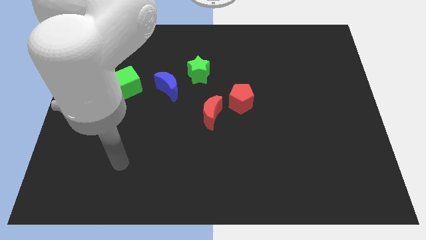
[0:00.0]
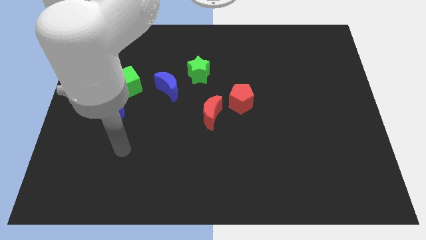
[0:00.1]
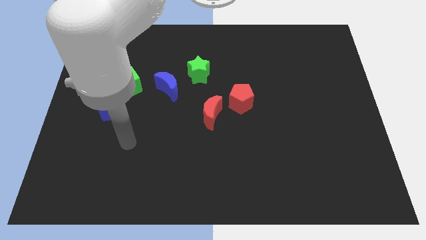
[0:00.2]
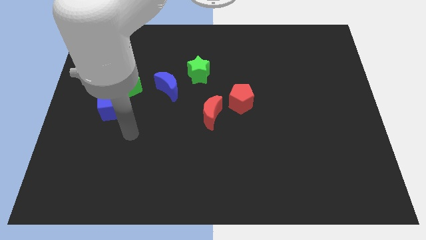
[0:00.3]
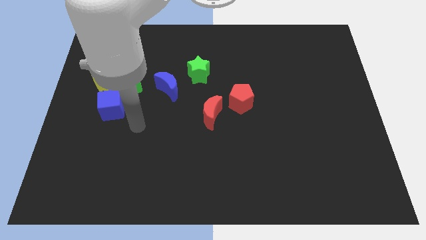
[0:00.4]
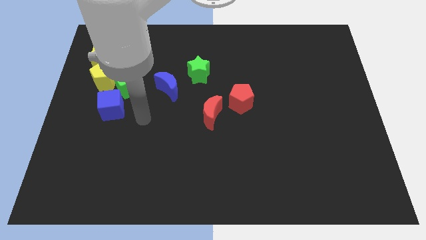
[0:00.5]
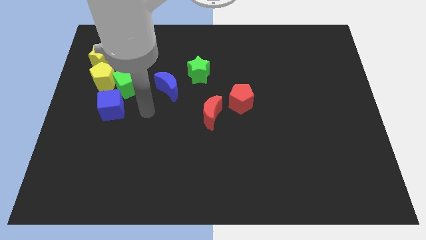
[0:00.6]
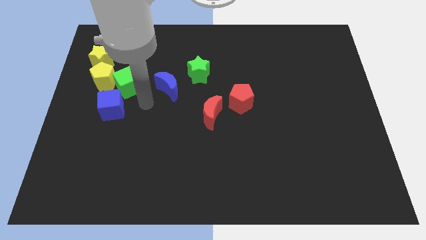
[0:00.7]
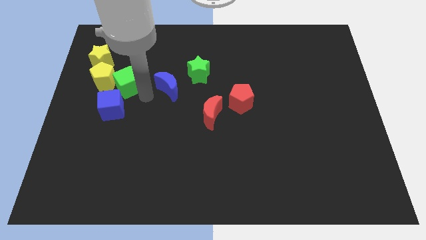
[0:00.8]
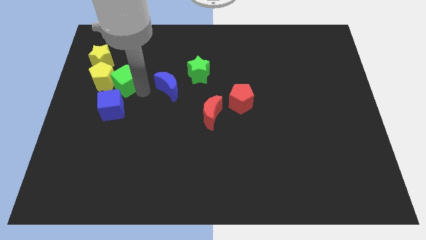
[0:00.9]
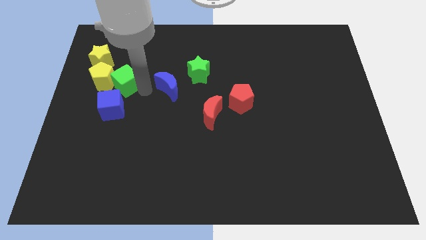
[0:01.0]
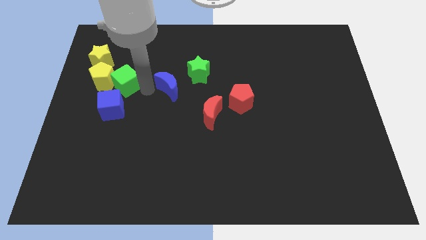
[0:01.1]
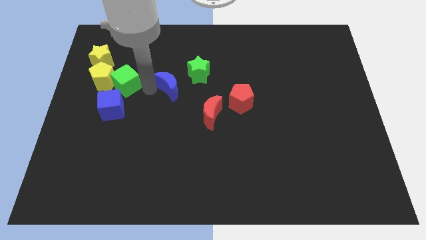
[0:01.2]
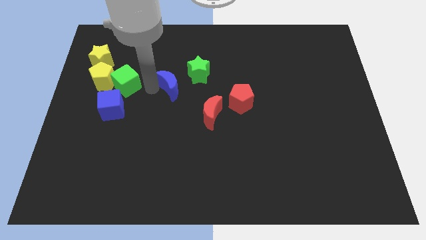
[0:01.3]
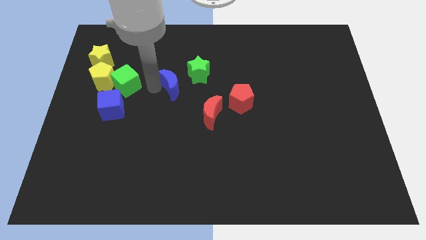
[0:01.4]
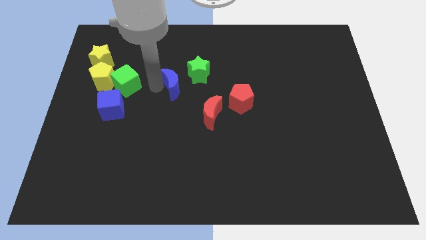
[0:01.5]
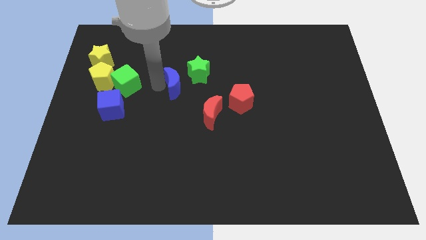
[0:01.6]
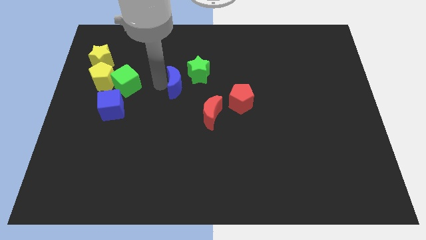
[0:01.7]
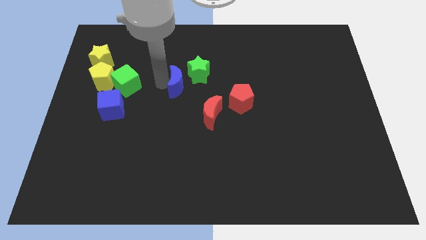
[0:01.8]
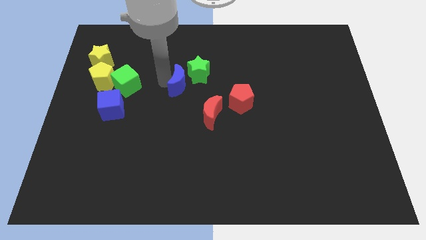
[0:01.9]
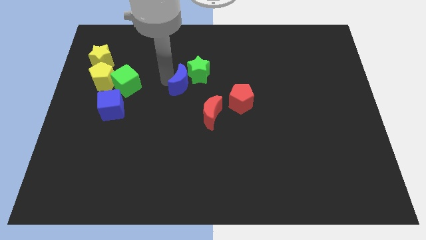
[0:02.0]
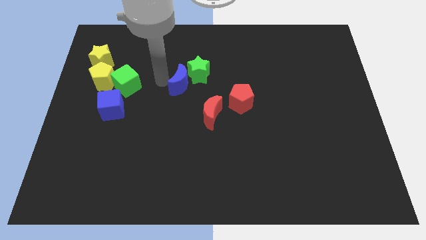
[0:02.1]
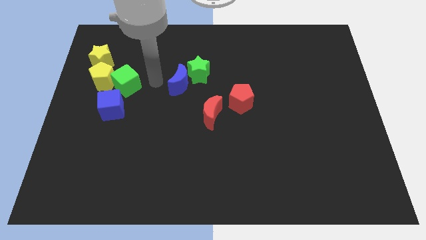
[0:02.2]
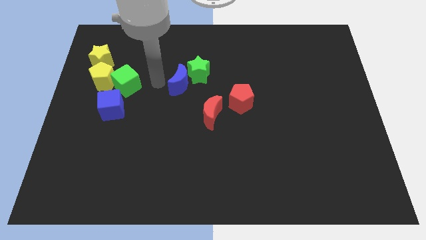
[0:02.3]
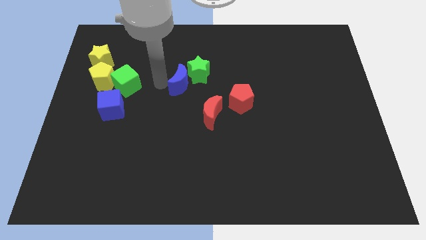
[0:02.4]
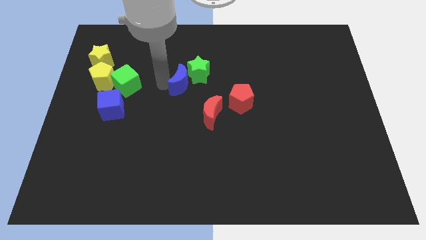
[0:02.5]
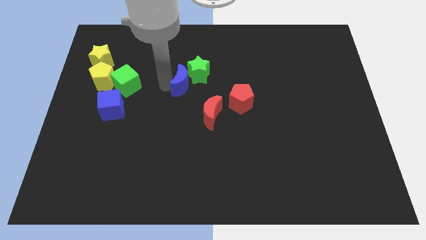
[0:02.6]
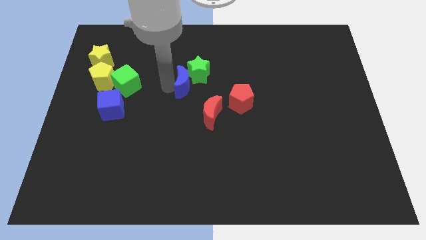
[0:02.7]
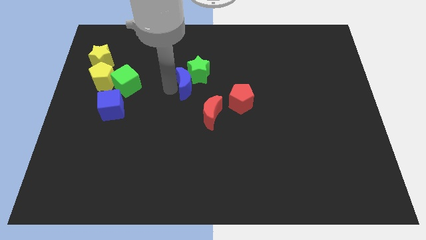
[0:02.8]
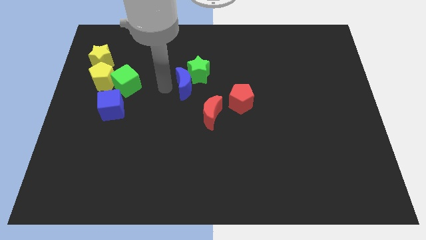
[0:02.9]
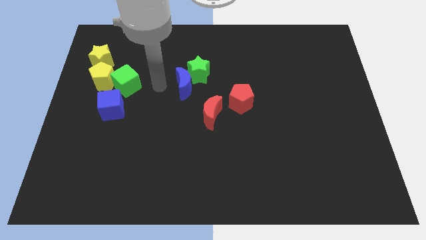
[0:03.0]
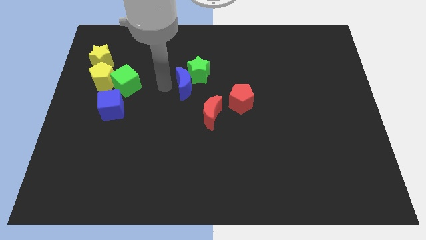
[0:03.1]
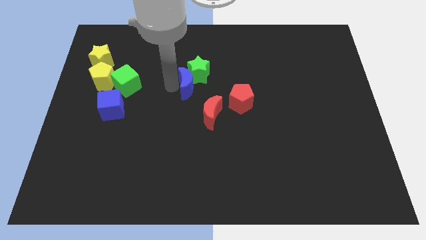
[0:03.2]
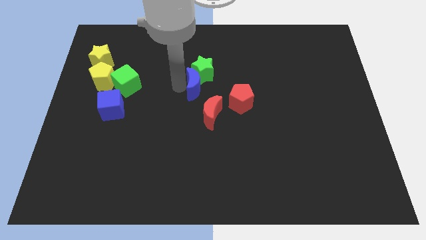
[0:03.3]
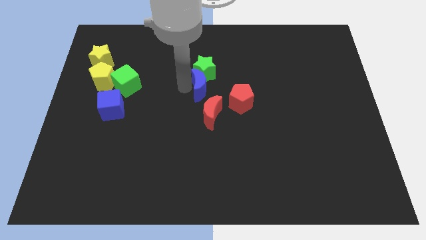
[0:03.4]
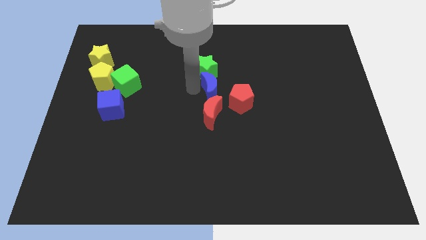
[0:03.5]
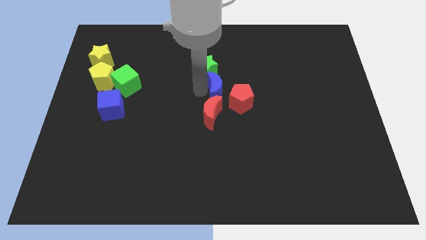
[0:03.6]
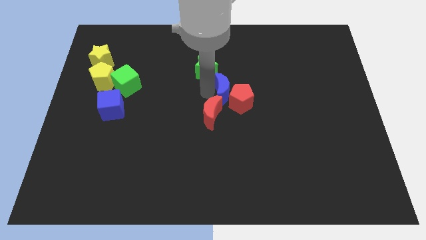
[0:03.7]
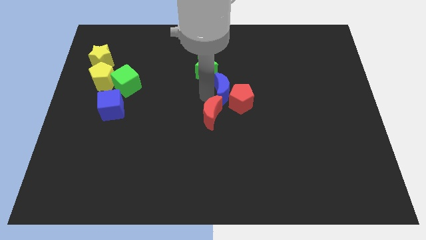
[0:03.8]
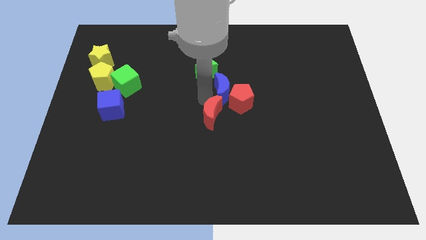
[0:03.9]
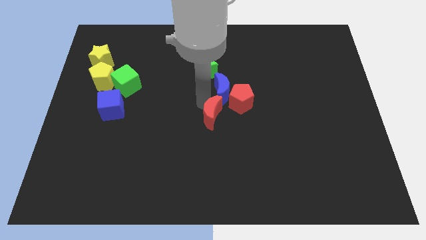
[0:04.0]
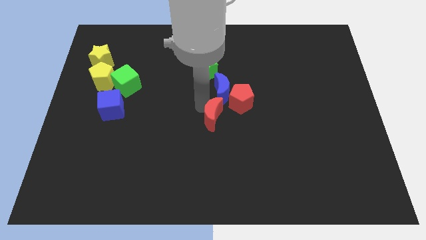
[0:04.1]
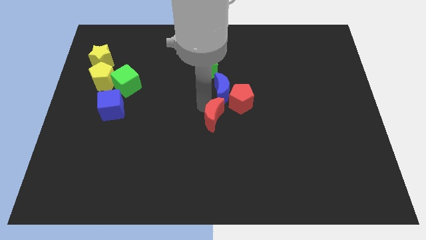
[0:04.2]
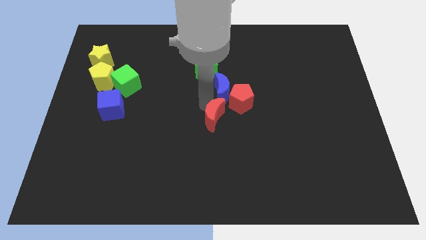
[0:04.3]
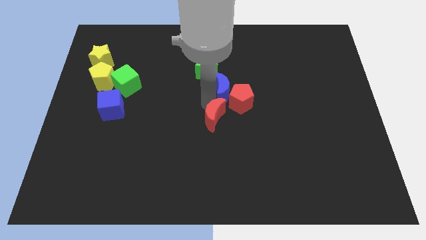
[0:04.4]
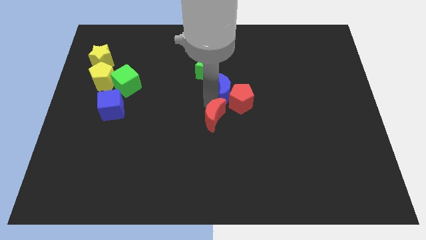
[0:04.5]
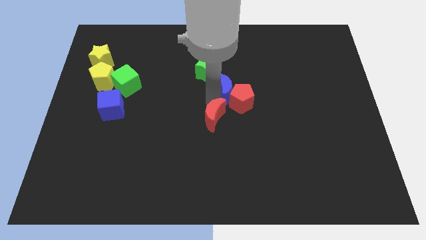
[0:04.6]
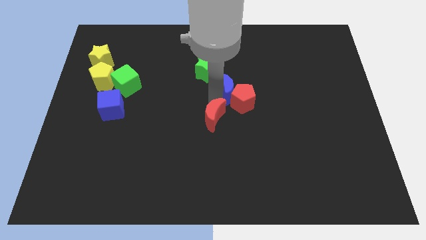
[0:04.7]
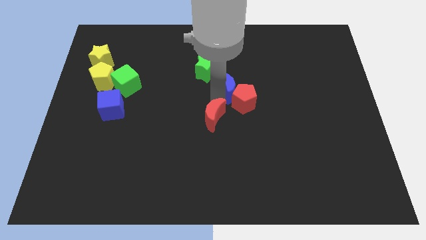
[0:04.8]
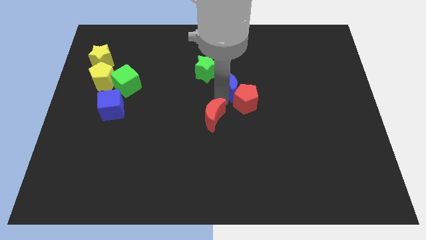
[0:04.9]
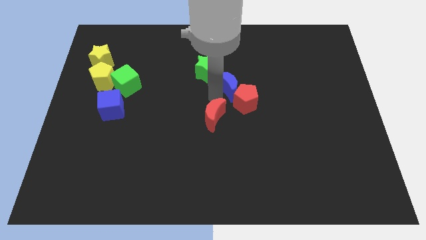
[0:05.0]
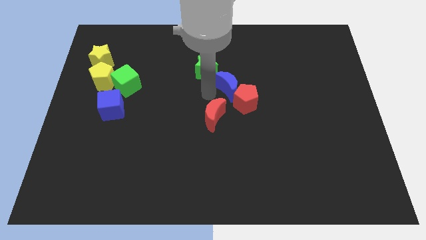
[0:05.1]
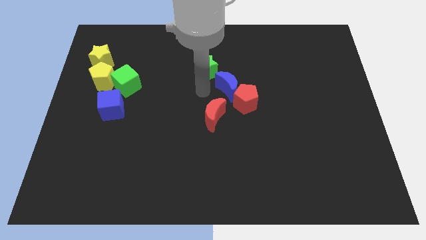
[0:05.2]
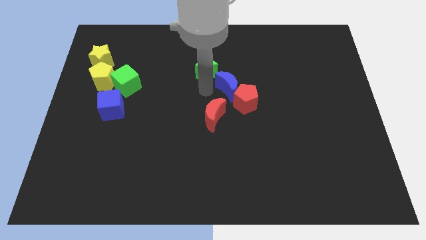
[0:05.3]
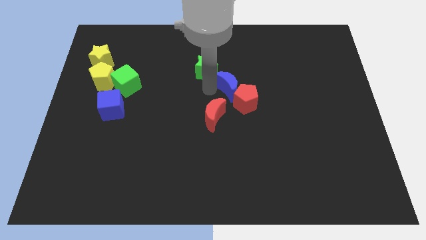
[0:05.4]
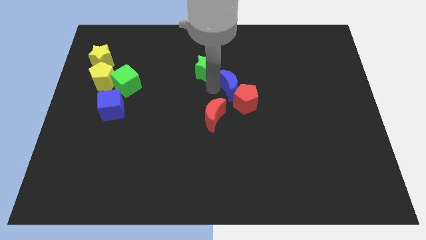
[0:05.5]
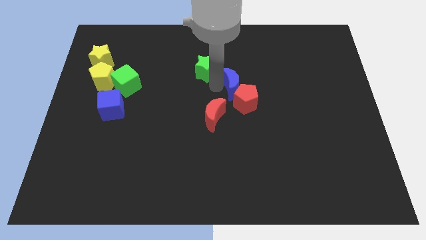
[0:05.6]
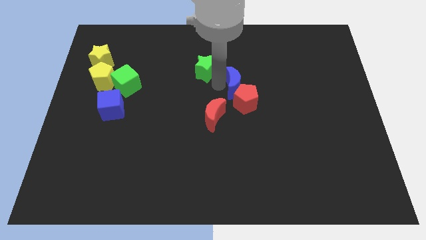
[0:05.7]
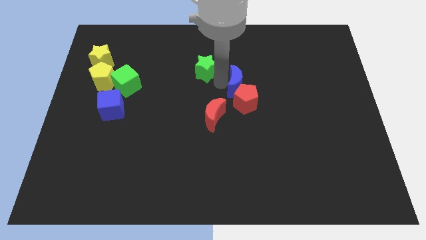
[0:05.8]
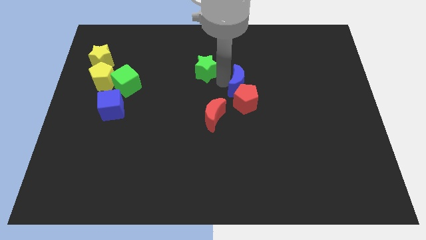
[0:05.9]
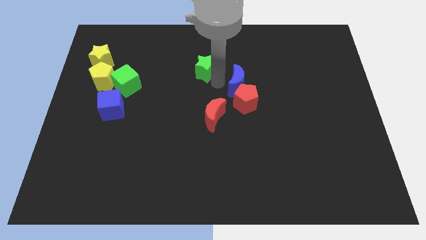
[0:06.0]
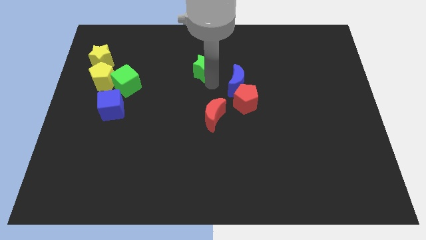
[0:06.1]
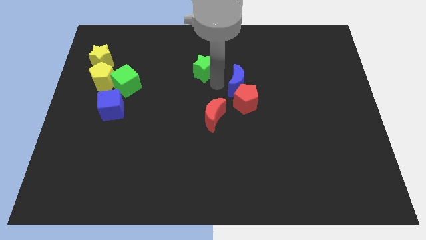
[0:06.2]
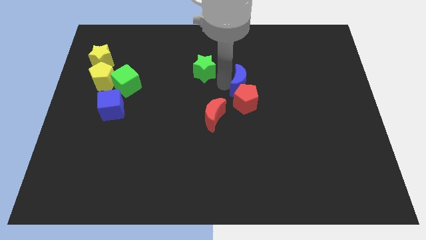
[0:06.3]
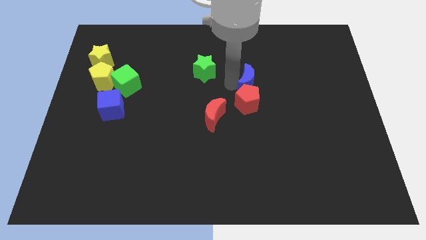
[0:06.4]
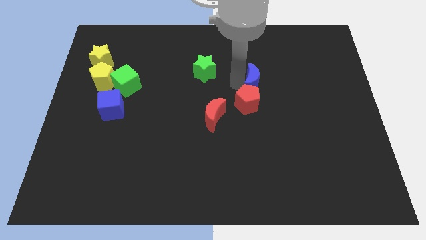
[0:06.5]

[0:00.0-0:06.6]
push the blue moon to the right

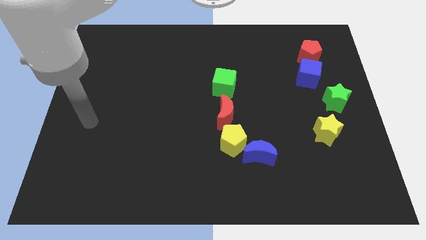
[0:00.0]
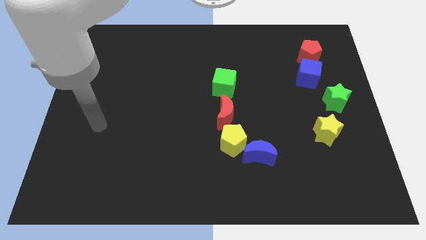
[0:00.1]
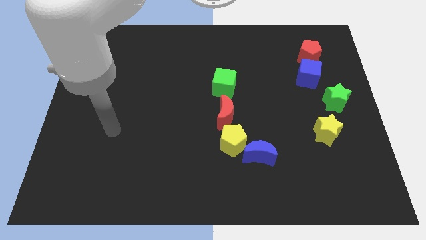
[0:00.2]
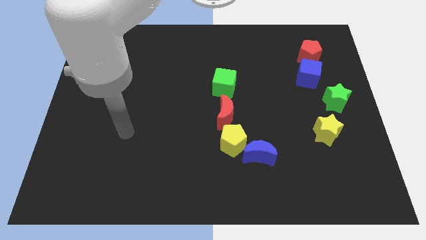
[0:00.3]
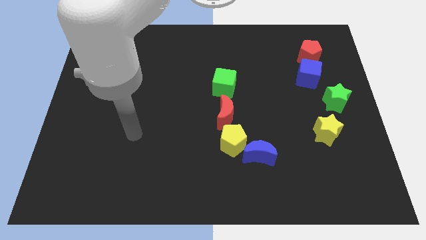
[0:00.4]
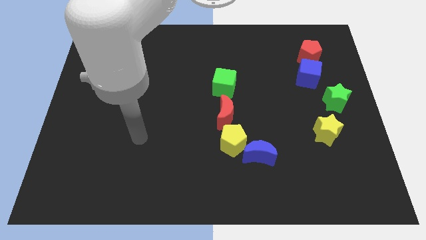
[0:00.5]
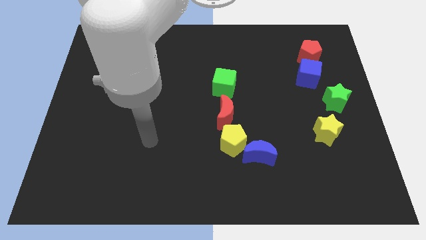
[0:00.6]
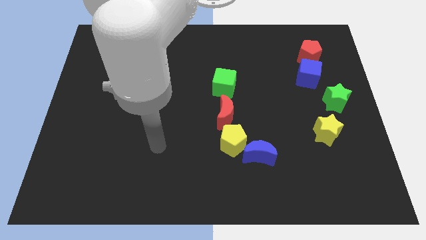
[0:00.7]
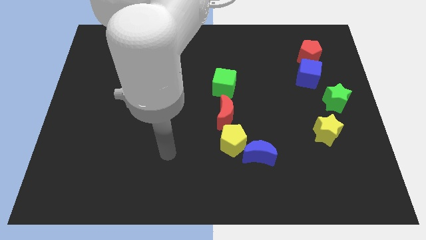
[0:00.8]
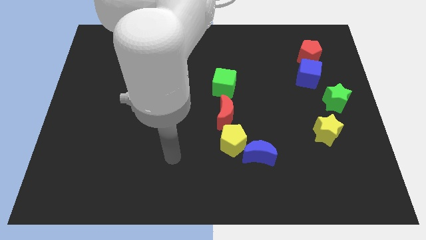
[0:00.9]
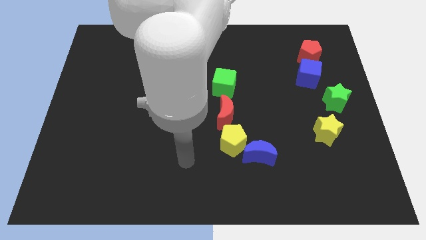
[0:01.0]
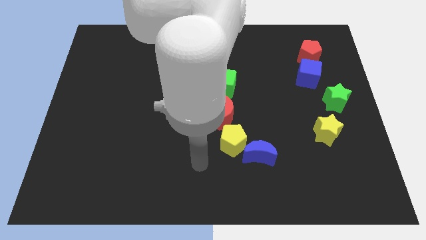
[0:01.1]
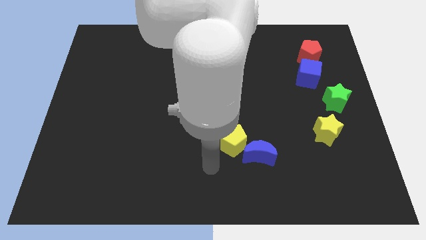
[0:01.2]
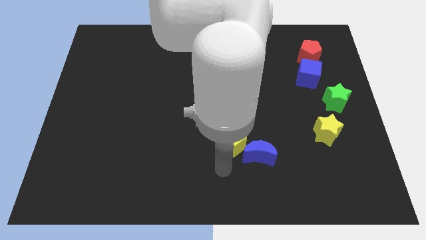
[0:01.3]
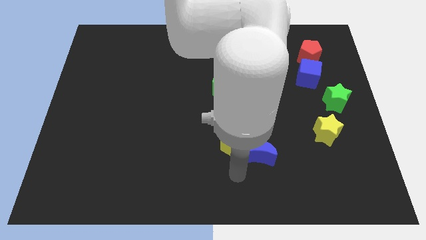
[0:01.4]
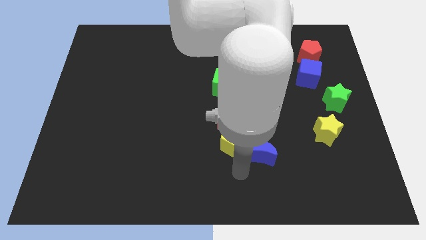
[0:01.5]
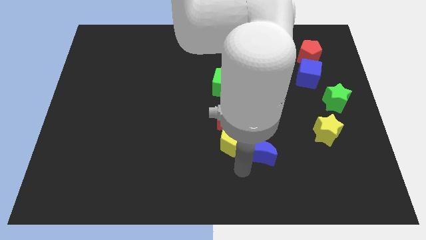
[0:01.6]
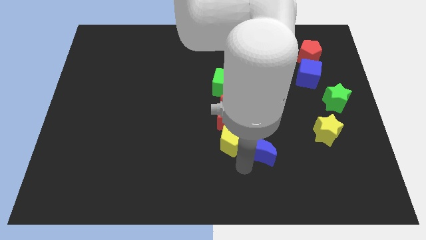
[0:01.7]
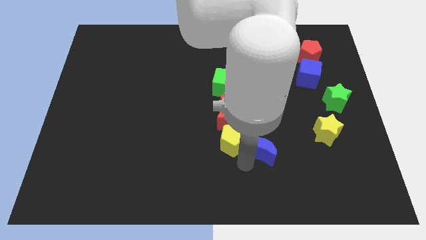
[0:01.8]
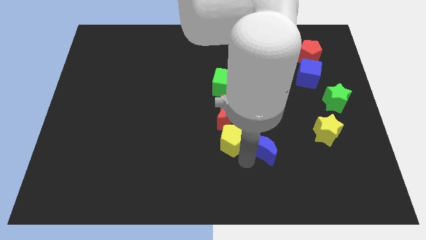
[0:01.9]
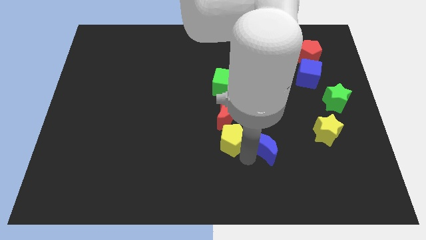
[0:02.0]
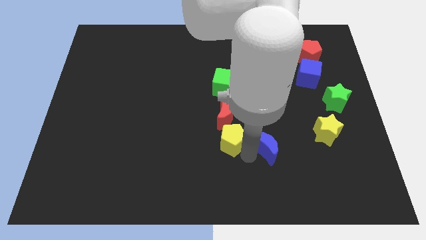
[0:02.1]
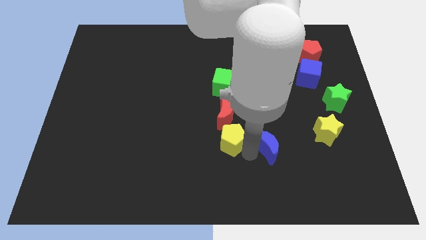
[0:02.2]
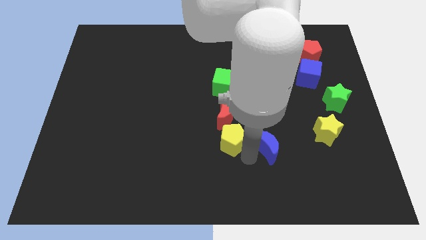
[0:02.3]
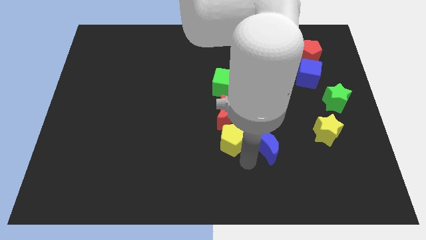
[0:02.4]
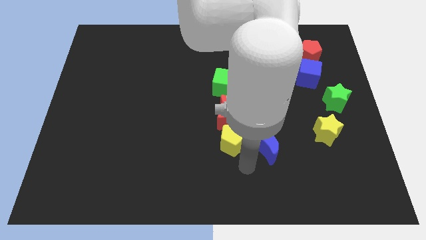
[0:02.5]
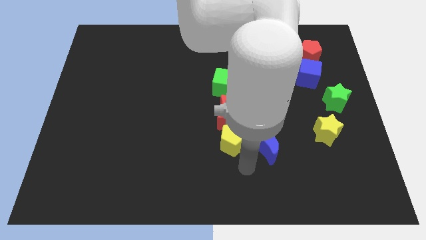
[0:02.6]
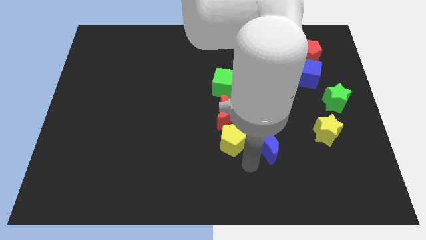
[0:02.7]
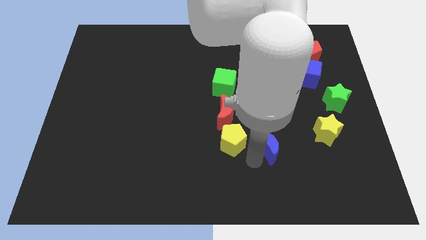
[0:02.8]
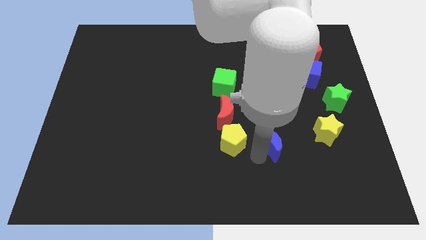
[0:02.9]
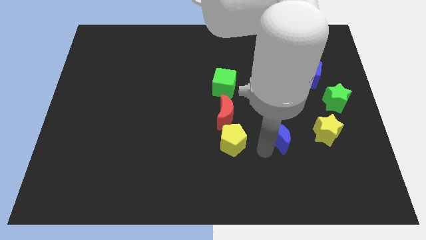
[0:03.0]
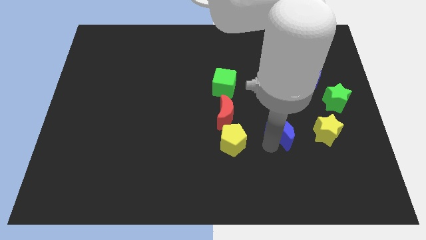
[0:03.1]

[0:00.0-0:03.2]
push the blue moon diagonally up and to the right somewhat
